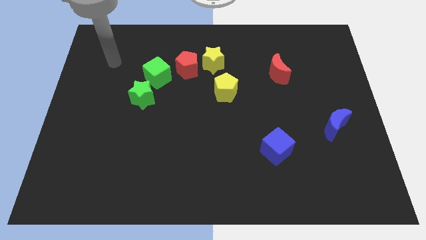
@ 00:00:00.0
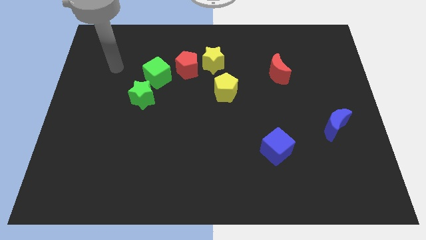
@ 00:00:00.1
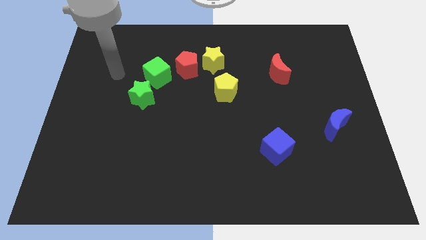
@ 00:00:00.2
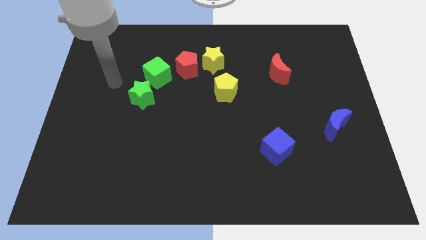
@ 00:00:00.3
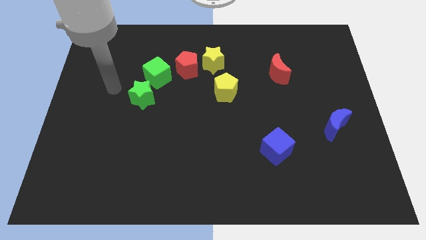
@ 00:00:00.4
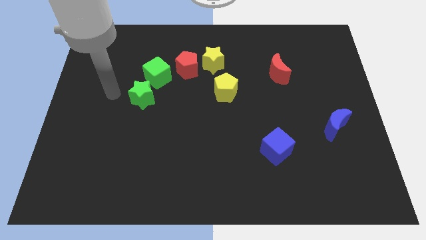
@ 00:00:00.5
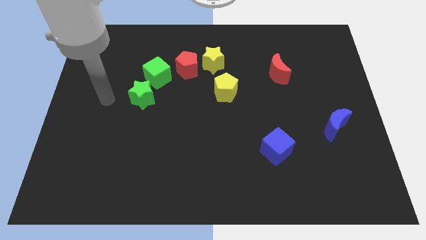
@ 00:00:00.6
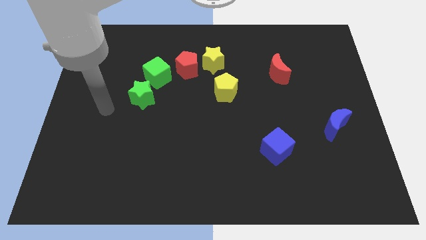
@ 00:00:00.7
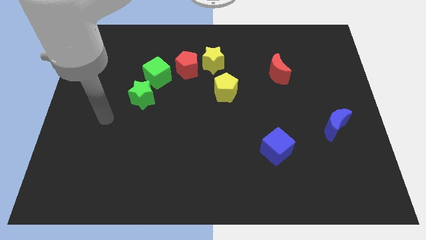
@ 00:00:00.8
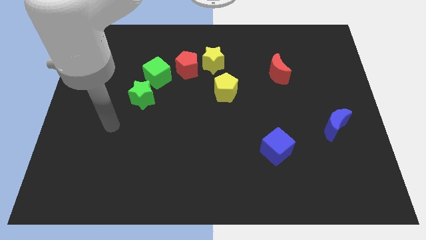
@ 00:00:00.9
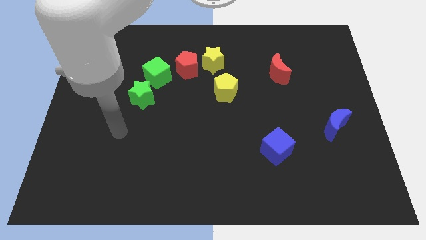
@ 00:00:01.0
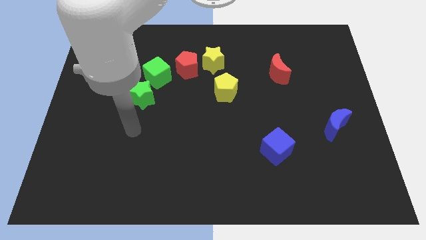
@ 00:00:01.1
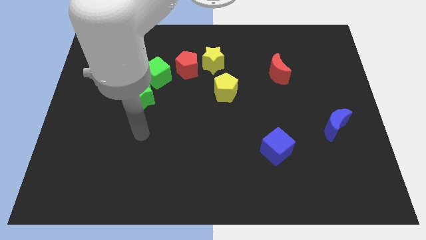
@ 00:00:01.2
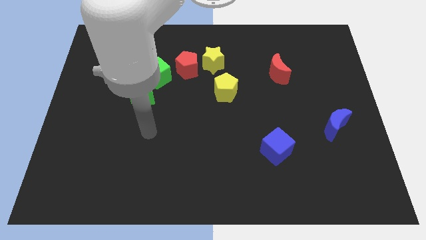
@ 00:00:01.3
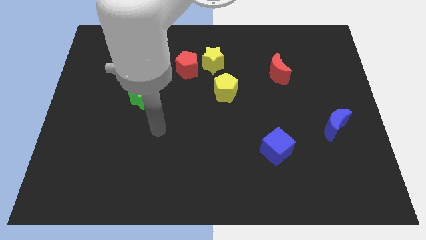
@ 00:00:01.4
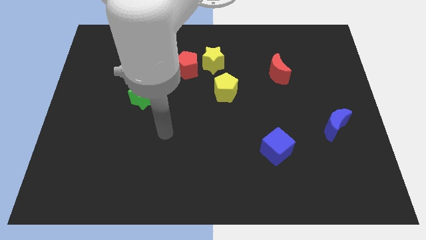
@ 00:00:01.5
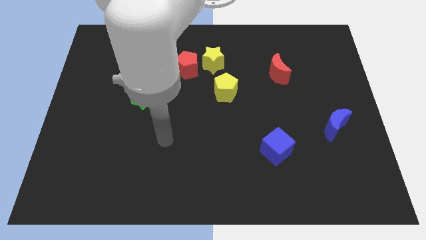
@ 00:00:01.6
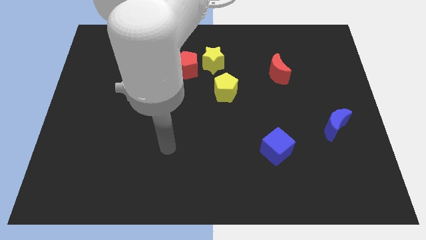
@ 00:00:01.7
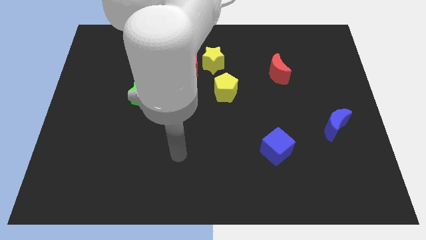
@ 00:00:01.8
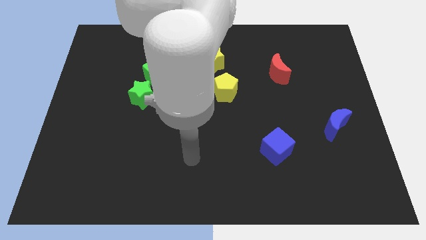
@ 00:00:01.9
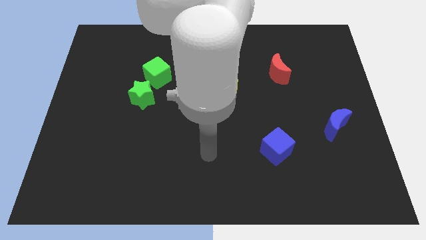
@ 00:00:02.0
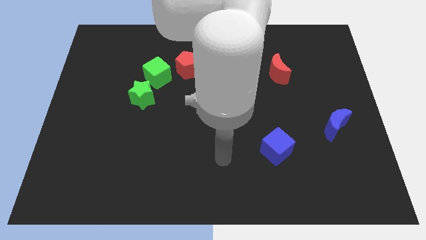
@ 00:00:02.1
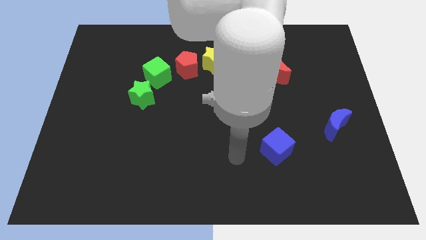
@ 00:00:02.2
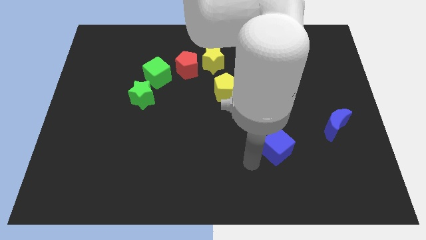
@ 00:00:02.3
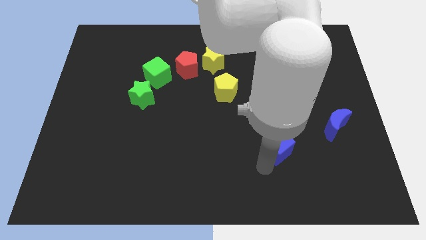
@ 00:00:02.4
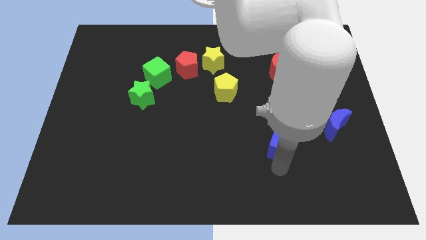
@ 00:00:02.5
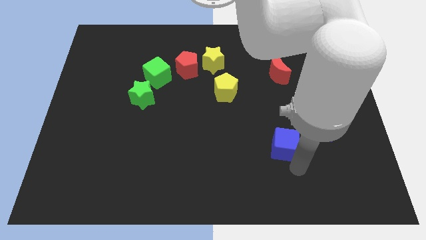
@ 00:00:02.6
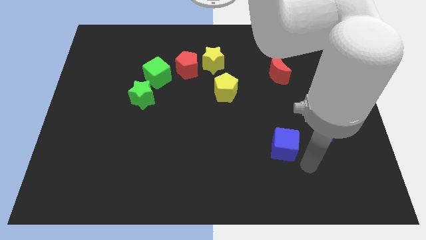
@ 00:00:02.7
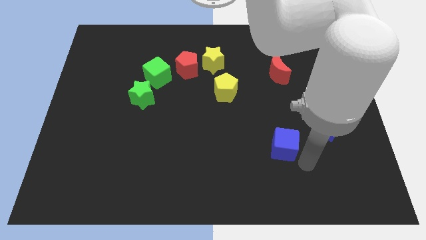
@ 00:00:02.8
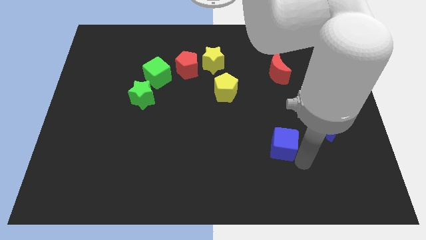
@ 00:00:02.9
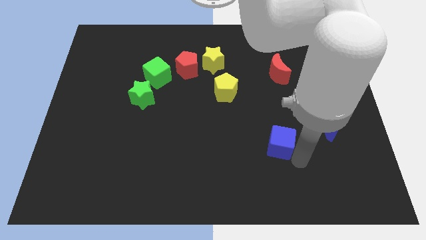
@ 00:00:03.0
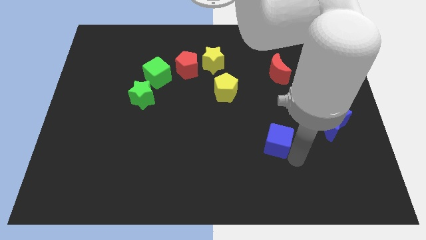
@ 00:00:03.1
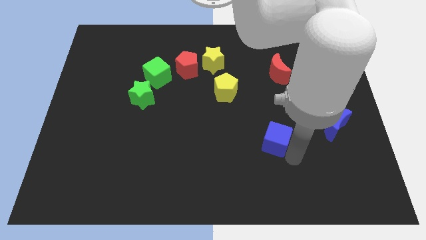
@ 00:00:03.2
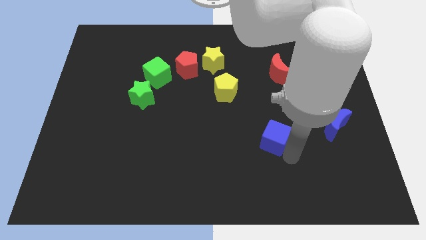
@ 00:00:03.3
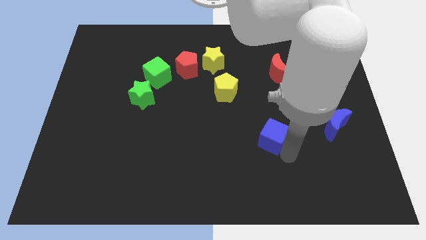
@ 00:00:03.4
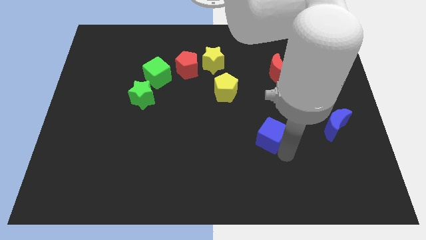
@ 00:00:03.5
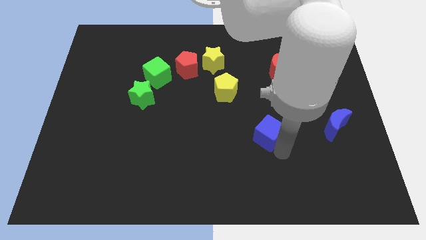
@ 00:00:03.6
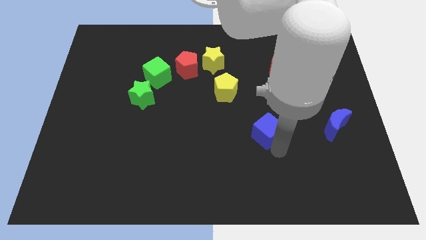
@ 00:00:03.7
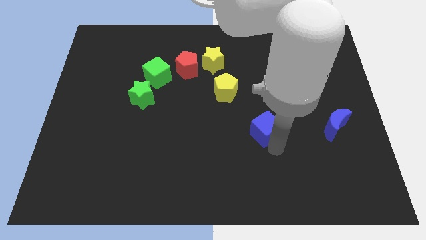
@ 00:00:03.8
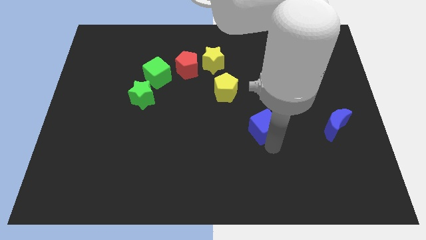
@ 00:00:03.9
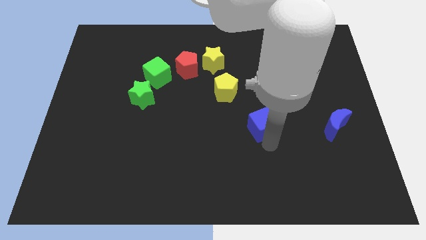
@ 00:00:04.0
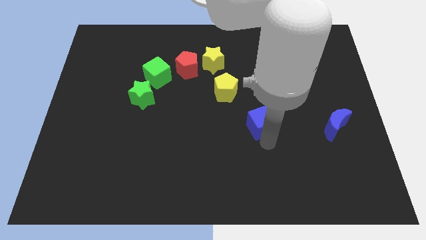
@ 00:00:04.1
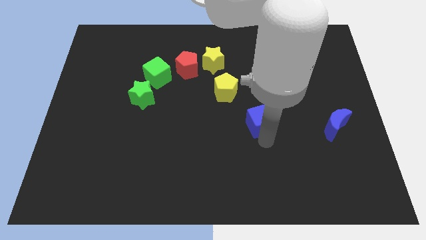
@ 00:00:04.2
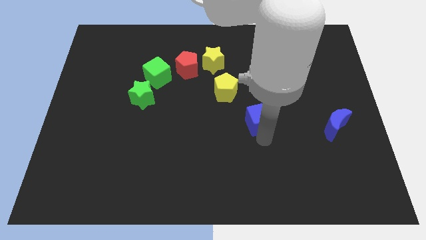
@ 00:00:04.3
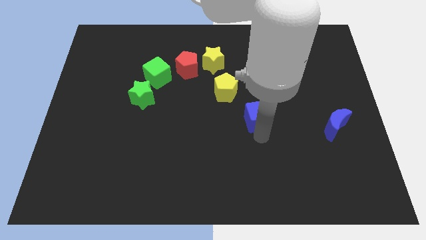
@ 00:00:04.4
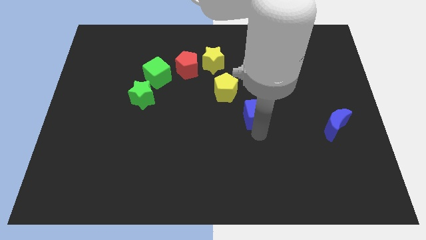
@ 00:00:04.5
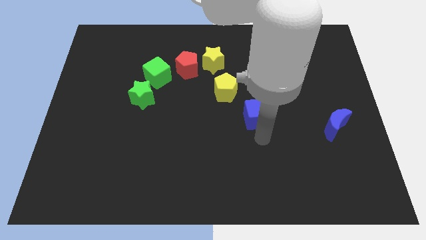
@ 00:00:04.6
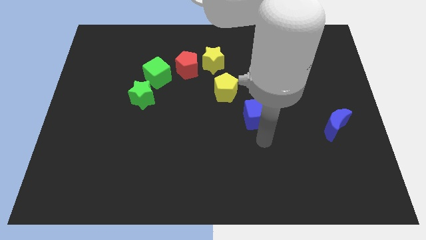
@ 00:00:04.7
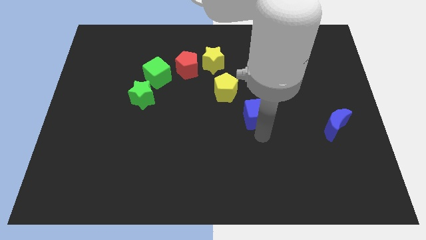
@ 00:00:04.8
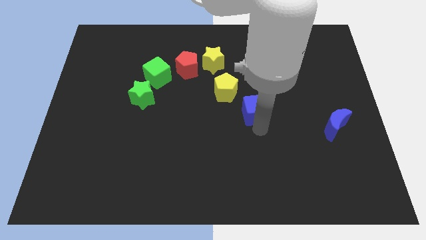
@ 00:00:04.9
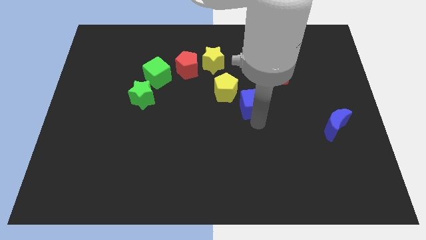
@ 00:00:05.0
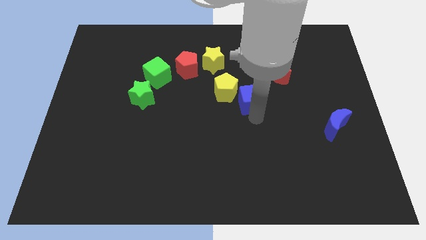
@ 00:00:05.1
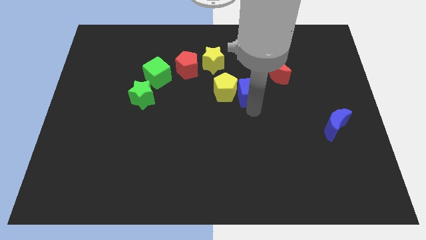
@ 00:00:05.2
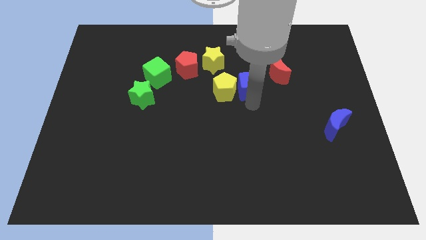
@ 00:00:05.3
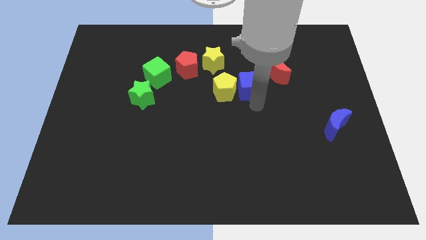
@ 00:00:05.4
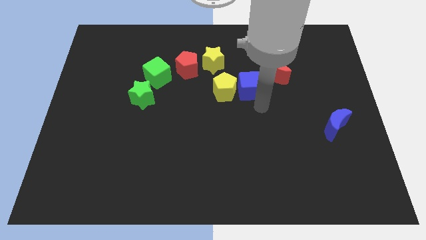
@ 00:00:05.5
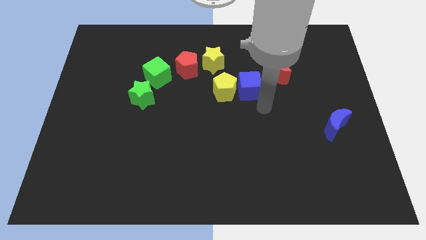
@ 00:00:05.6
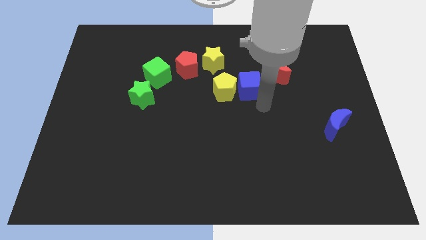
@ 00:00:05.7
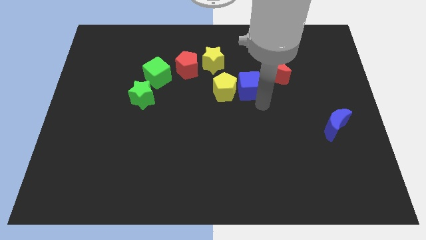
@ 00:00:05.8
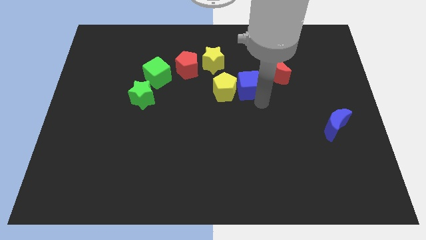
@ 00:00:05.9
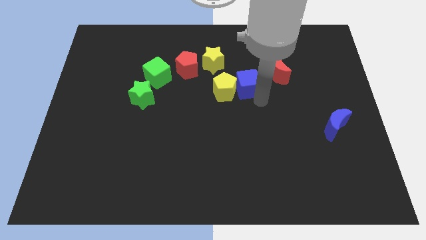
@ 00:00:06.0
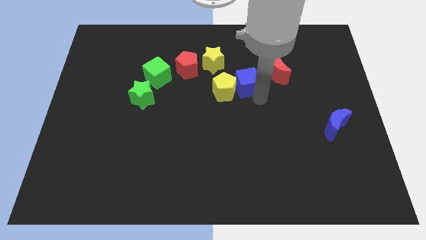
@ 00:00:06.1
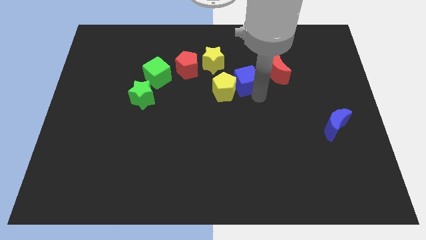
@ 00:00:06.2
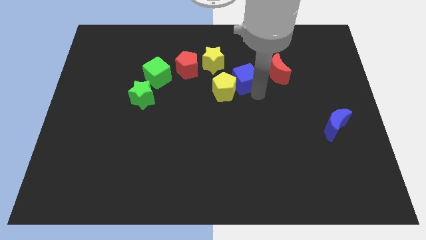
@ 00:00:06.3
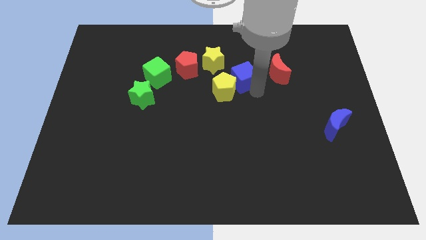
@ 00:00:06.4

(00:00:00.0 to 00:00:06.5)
push the blue cube to the right side of the red pentagon
